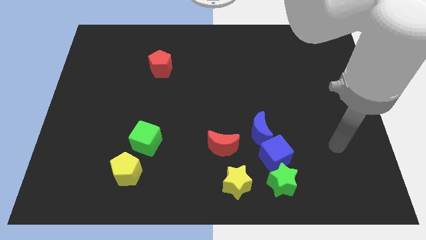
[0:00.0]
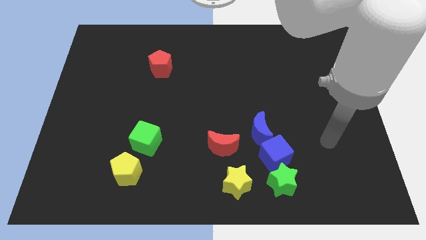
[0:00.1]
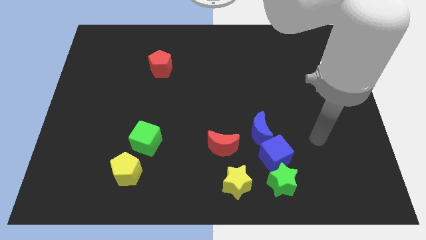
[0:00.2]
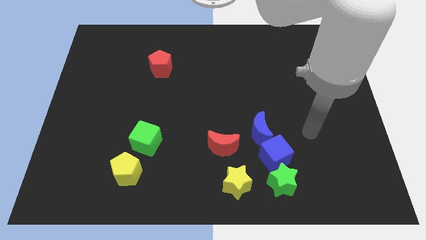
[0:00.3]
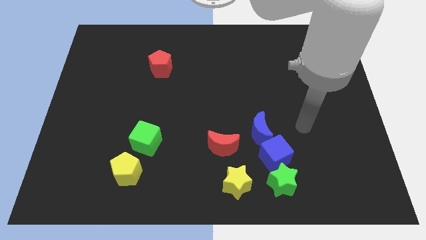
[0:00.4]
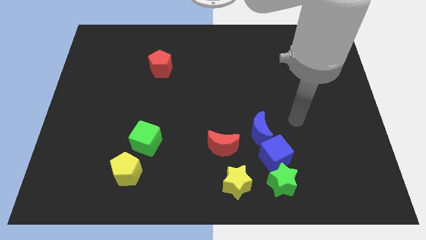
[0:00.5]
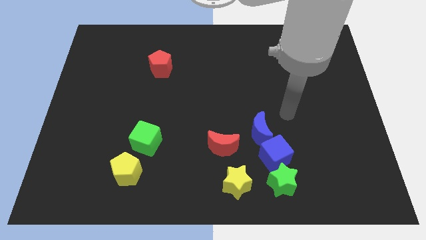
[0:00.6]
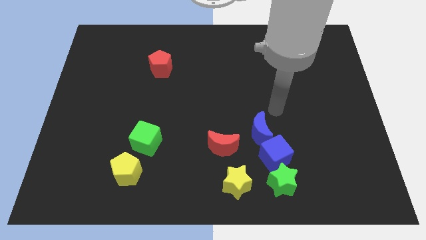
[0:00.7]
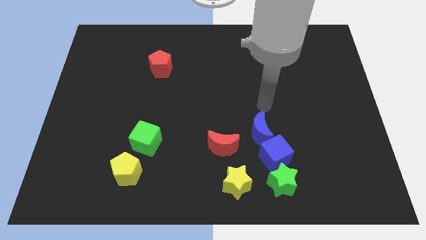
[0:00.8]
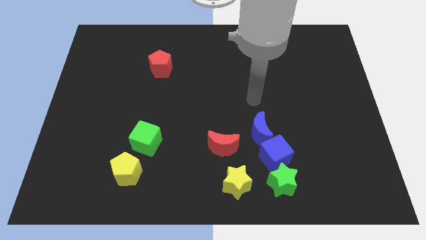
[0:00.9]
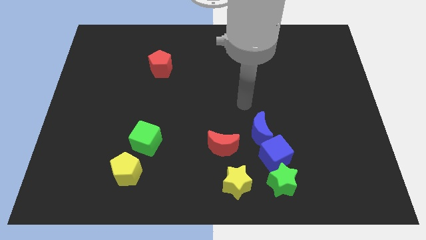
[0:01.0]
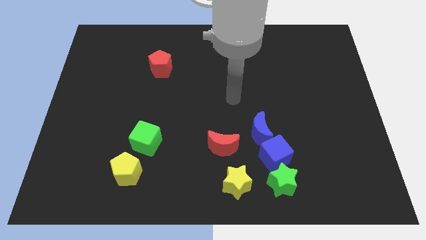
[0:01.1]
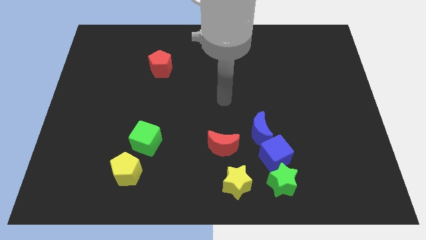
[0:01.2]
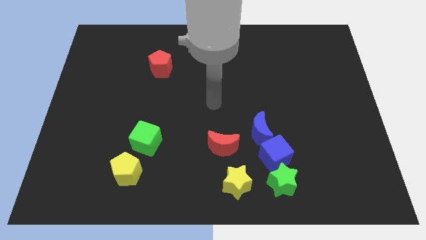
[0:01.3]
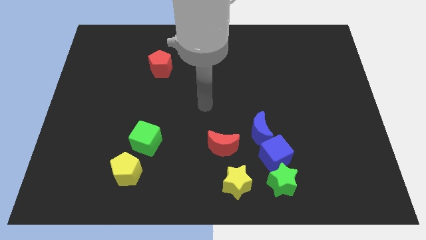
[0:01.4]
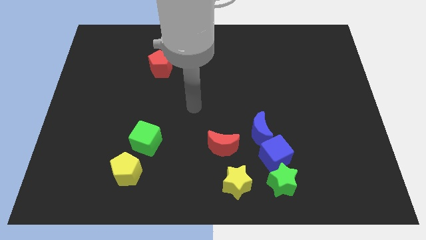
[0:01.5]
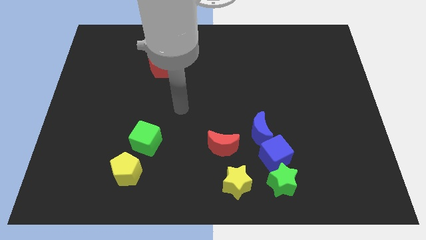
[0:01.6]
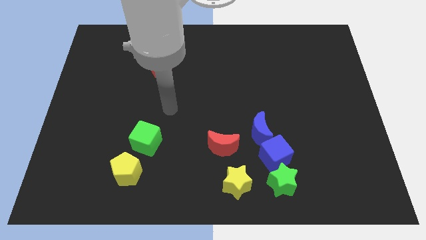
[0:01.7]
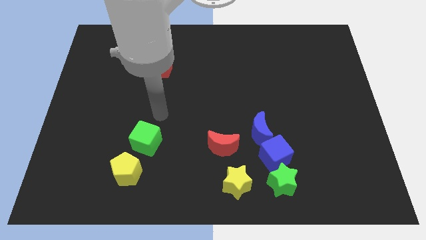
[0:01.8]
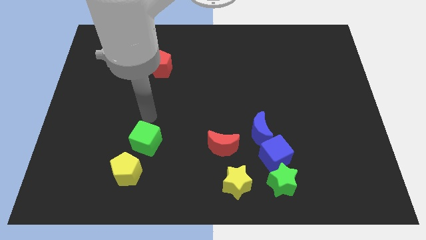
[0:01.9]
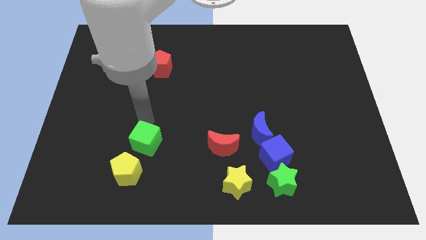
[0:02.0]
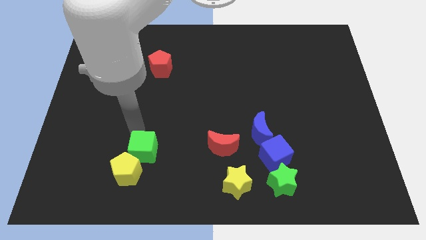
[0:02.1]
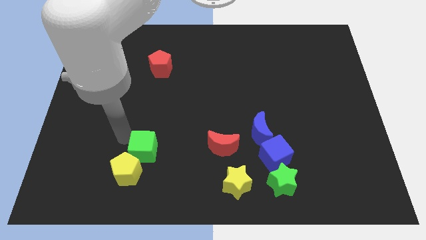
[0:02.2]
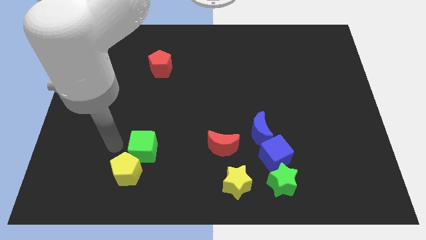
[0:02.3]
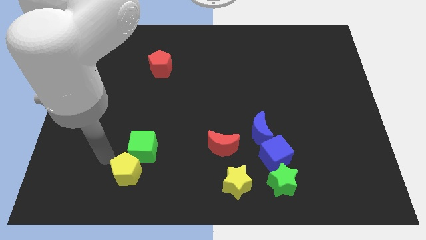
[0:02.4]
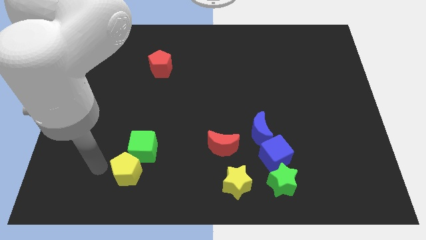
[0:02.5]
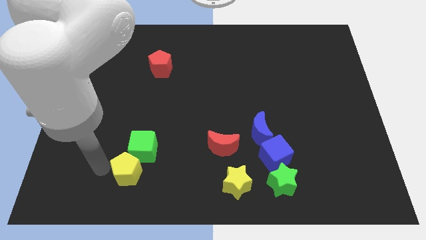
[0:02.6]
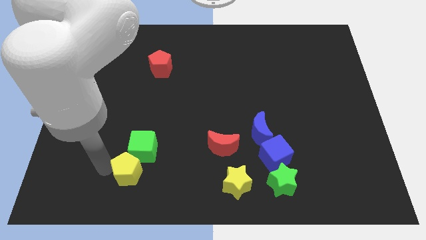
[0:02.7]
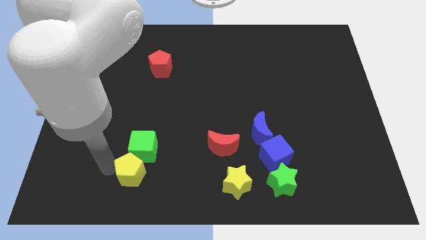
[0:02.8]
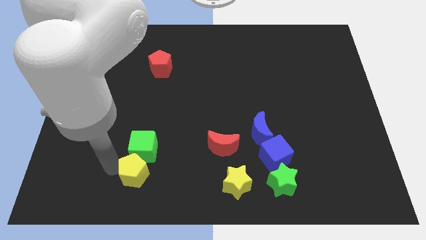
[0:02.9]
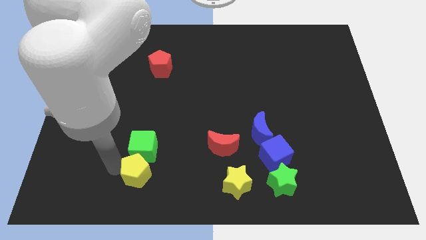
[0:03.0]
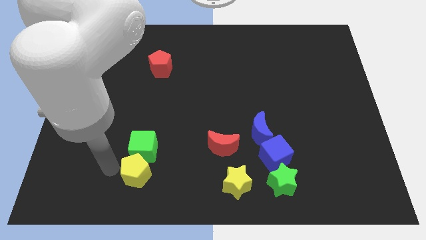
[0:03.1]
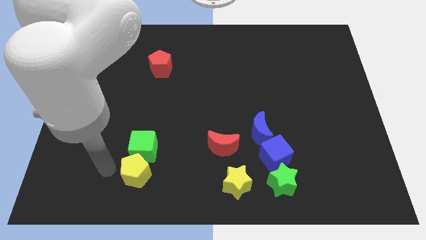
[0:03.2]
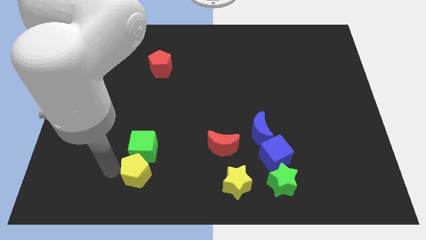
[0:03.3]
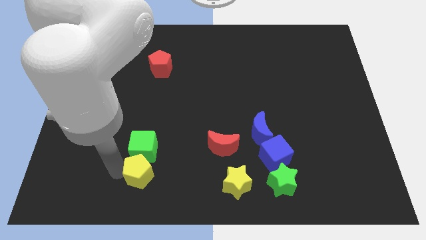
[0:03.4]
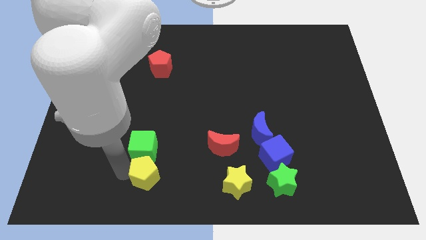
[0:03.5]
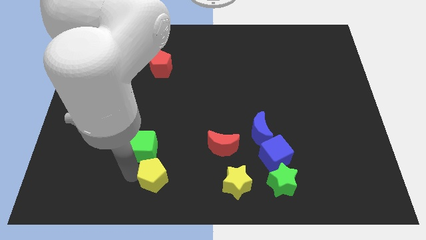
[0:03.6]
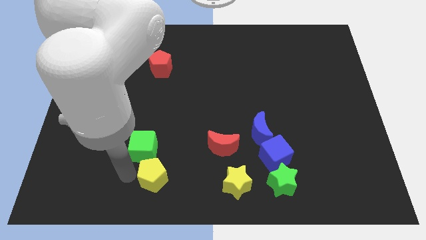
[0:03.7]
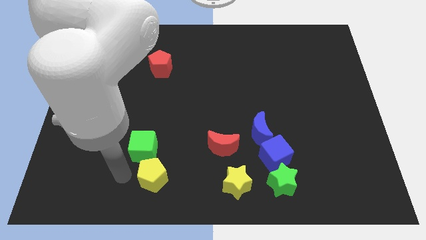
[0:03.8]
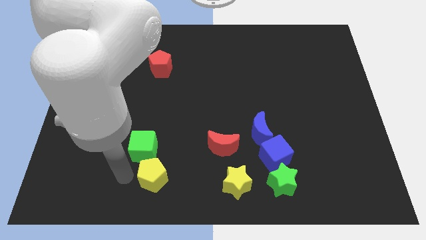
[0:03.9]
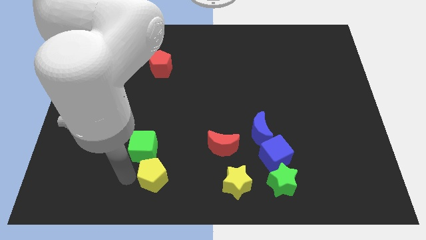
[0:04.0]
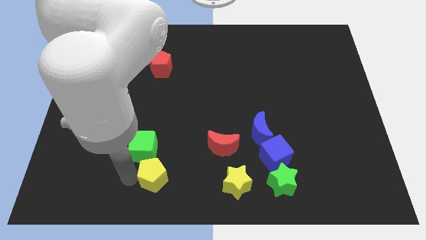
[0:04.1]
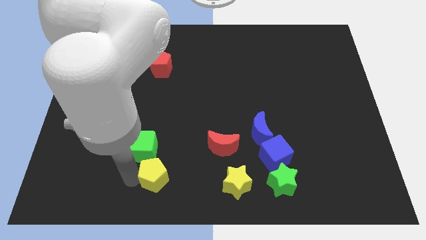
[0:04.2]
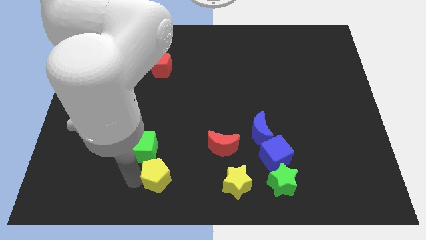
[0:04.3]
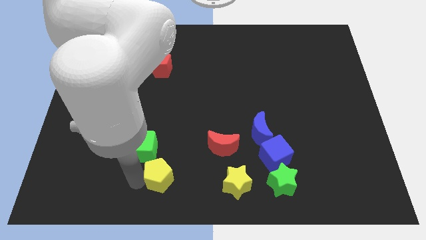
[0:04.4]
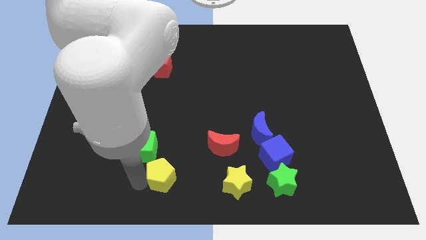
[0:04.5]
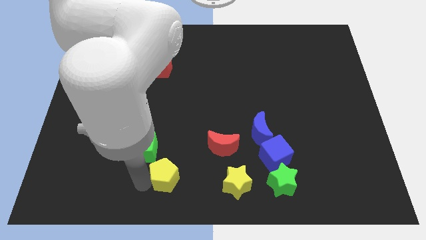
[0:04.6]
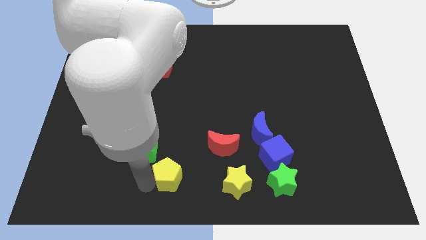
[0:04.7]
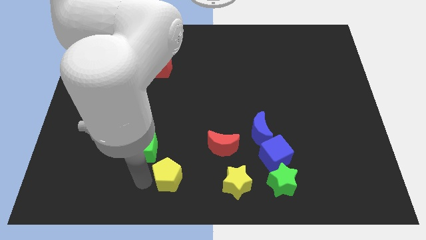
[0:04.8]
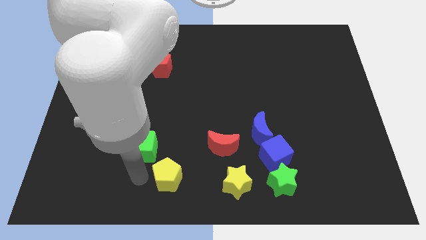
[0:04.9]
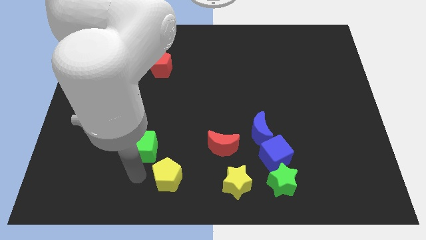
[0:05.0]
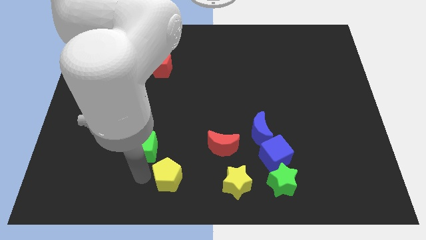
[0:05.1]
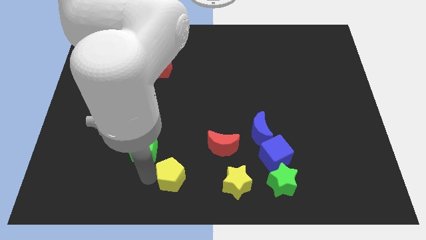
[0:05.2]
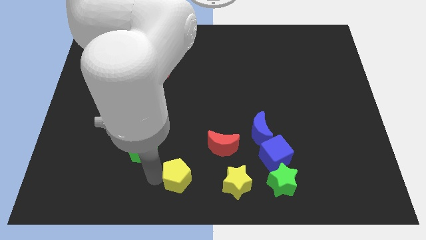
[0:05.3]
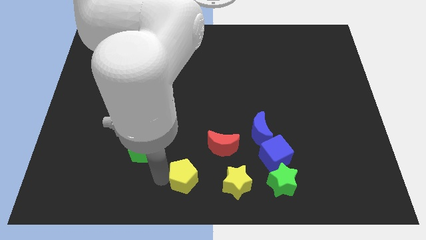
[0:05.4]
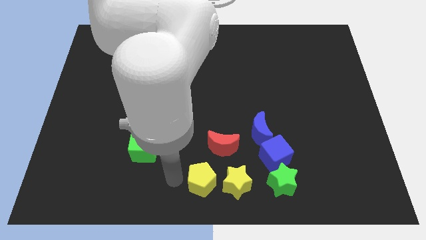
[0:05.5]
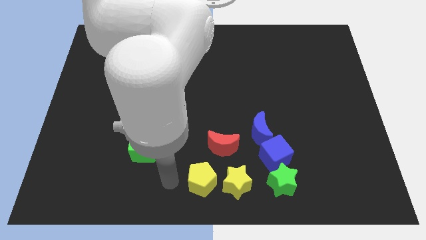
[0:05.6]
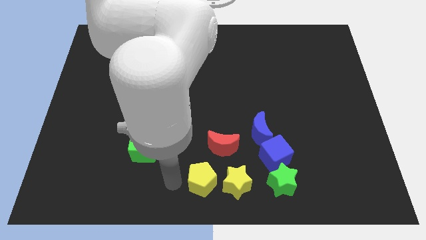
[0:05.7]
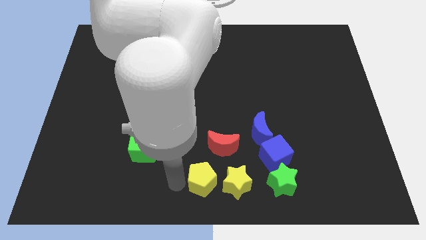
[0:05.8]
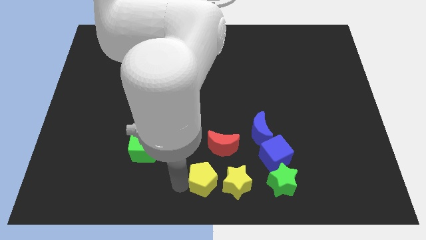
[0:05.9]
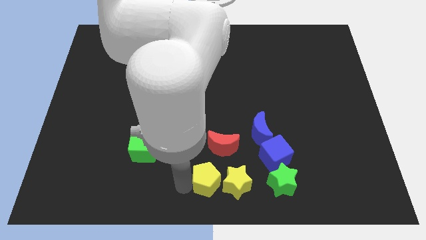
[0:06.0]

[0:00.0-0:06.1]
put the yellow pentagon next to the yellow star

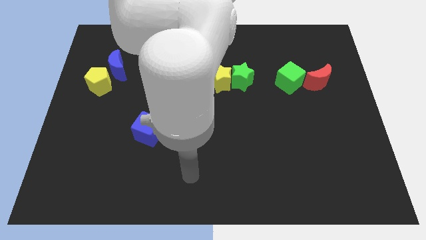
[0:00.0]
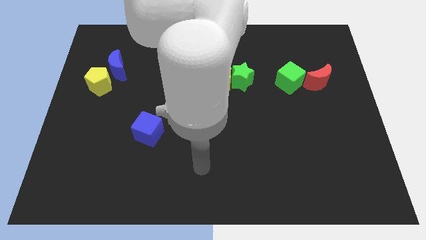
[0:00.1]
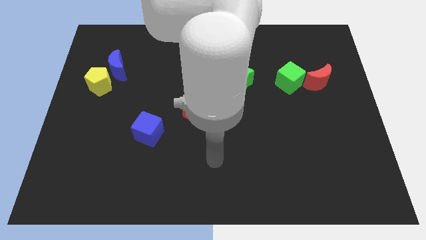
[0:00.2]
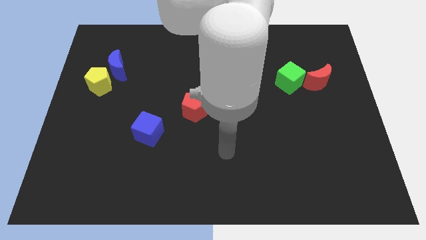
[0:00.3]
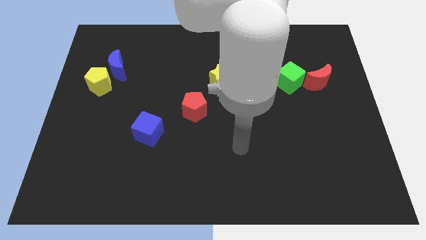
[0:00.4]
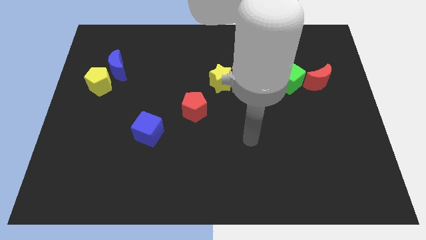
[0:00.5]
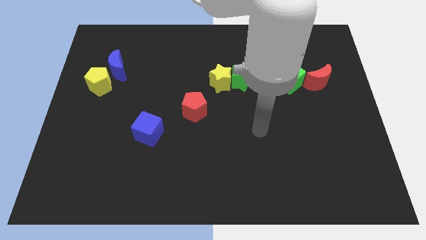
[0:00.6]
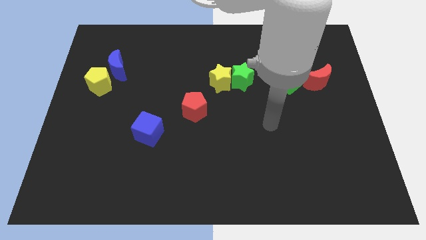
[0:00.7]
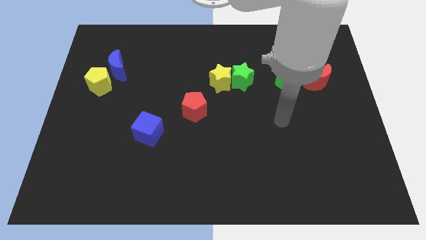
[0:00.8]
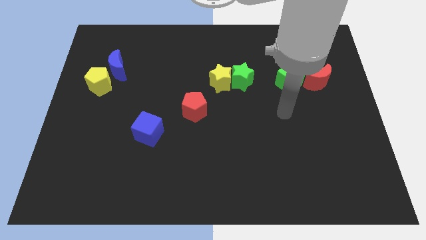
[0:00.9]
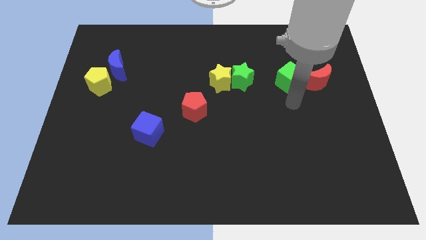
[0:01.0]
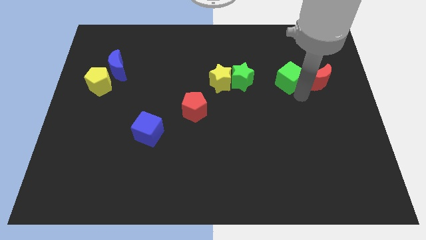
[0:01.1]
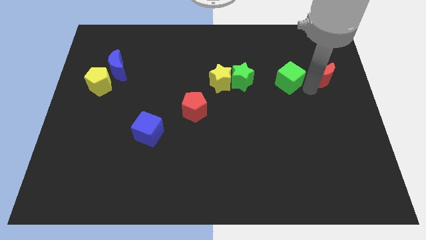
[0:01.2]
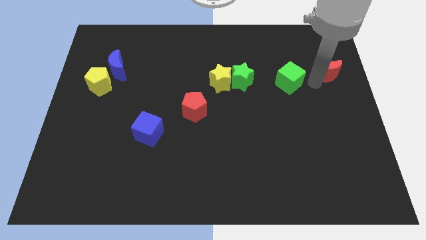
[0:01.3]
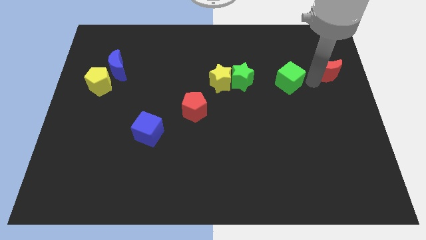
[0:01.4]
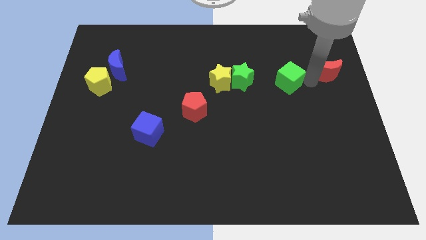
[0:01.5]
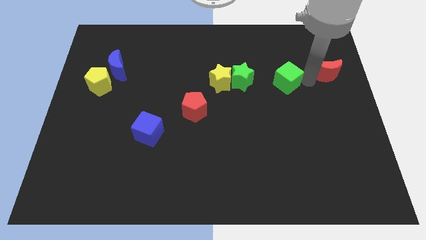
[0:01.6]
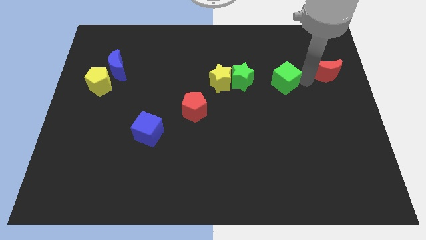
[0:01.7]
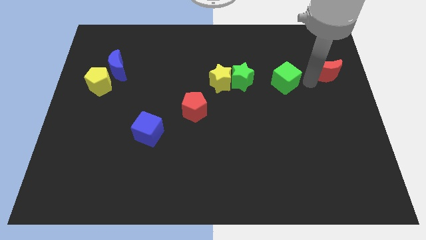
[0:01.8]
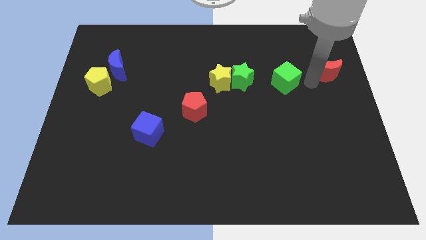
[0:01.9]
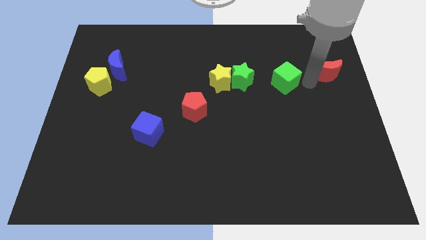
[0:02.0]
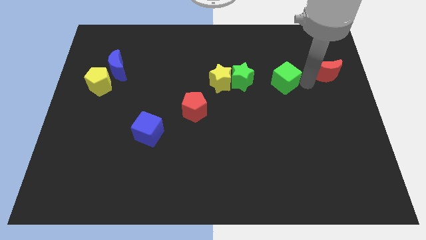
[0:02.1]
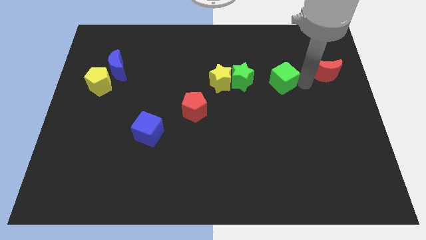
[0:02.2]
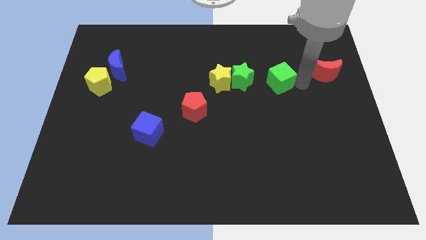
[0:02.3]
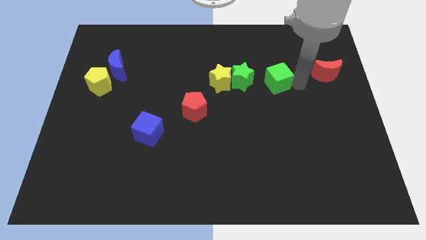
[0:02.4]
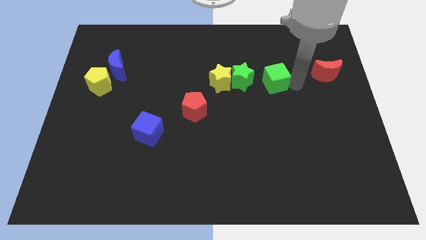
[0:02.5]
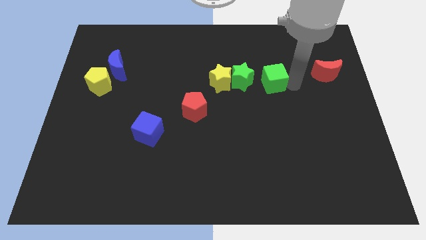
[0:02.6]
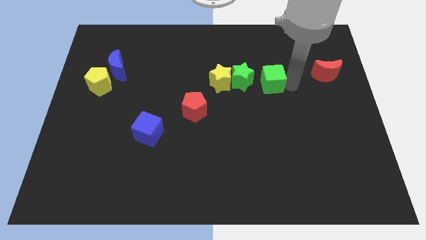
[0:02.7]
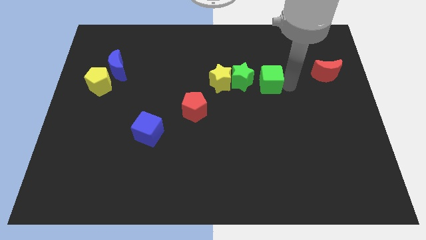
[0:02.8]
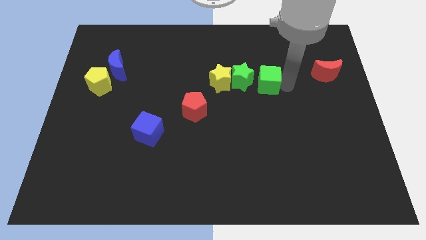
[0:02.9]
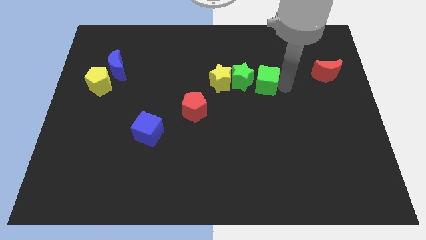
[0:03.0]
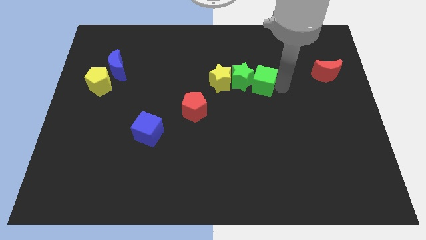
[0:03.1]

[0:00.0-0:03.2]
move the green cube close to the green star
